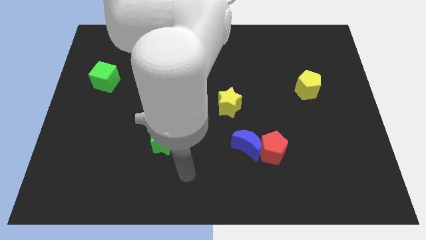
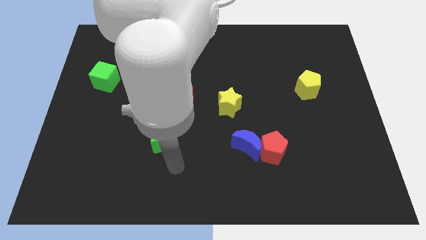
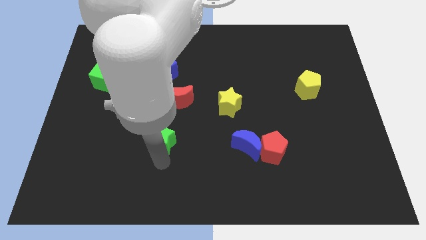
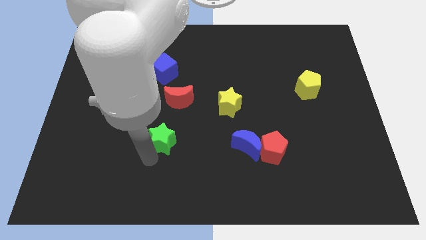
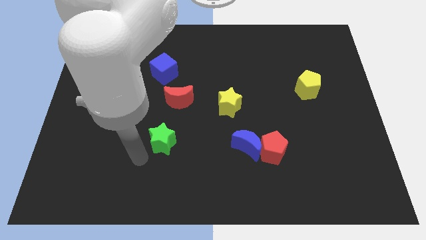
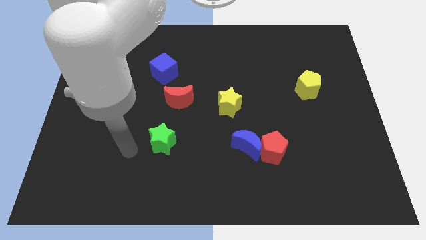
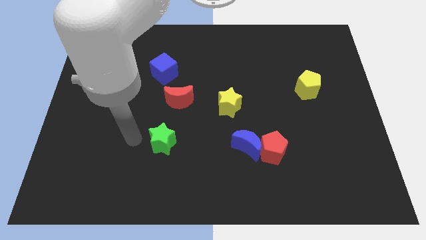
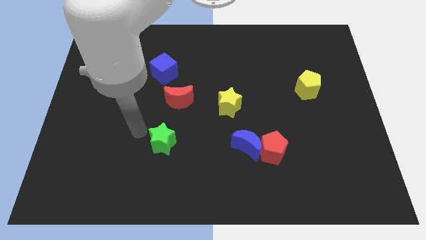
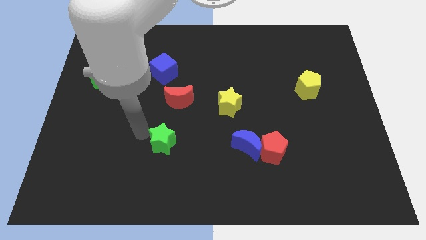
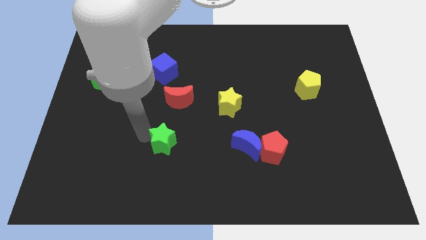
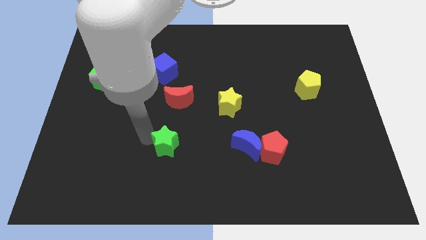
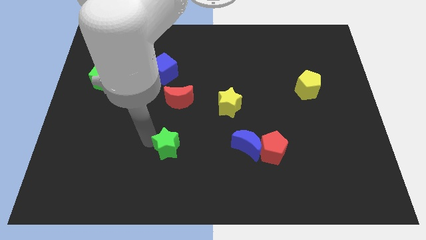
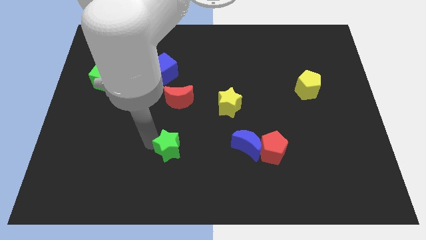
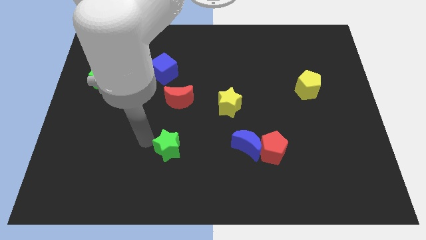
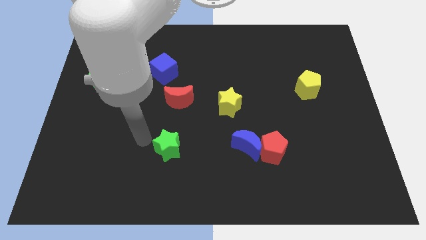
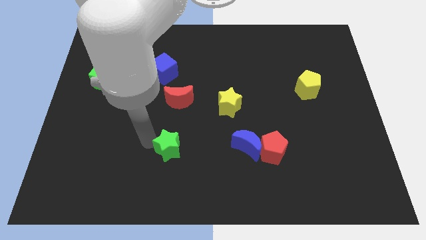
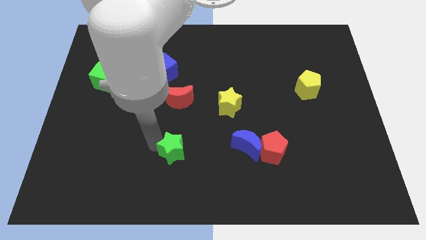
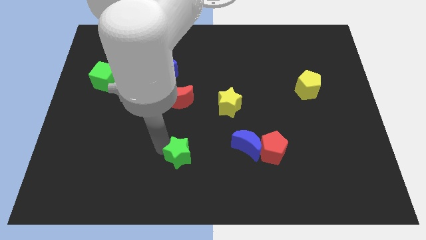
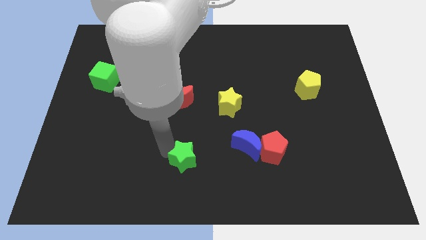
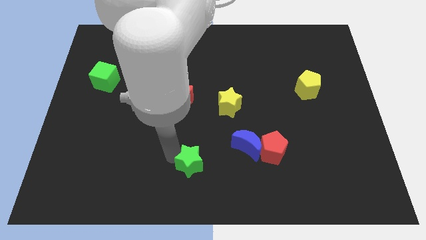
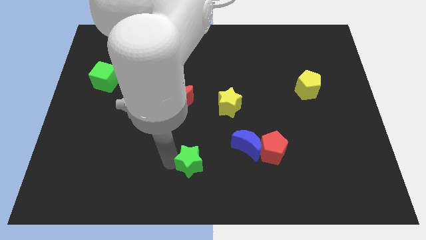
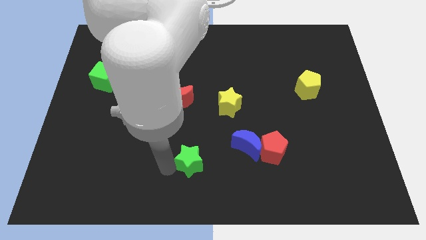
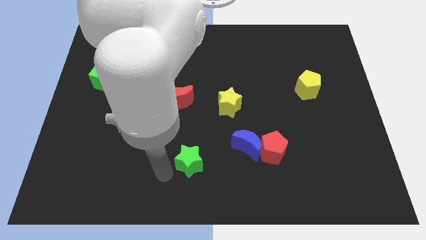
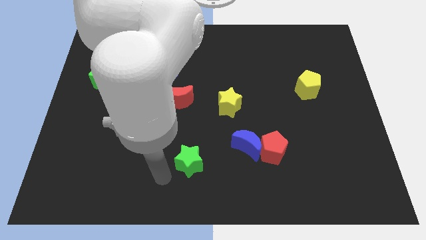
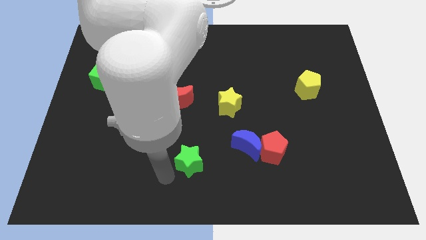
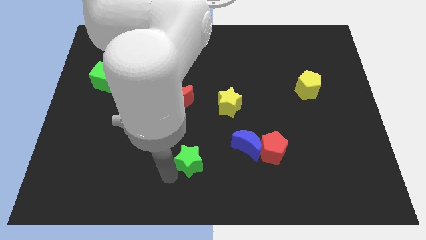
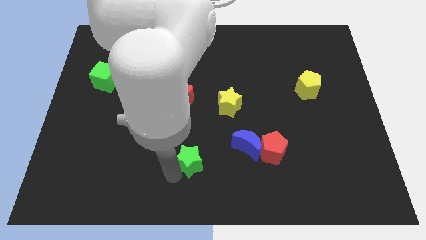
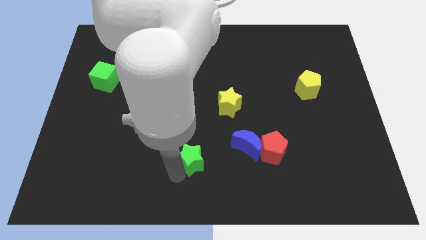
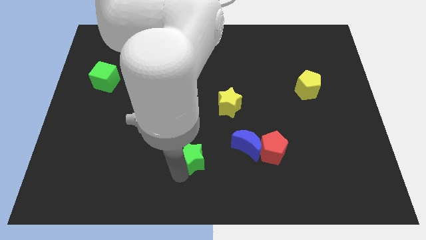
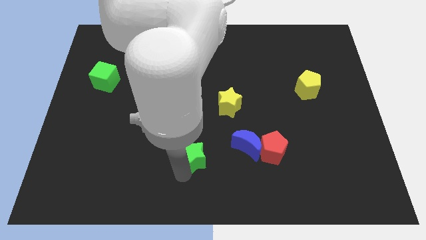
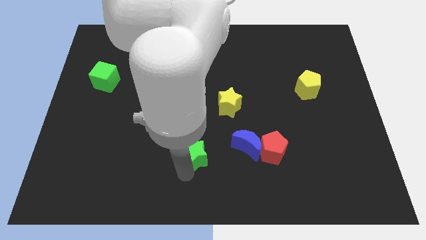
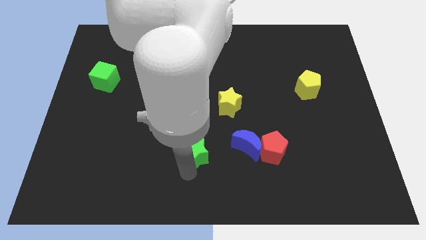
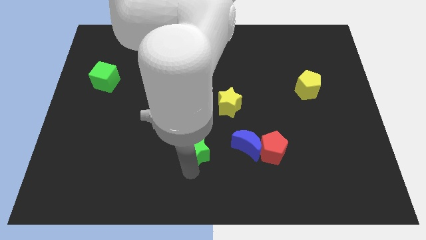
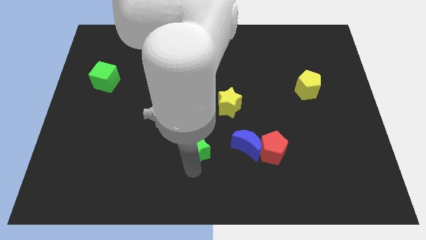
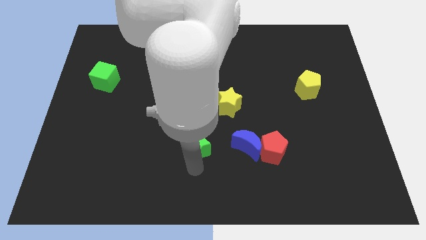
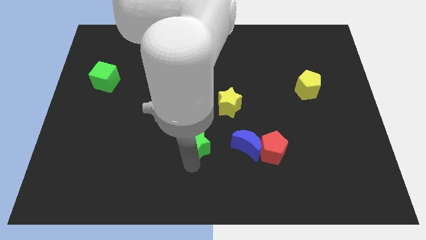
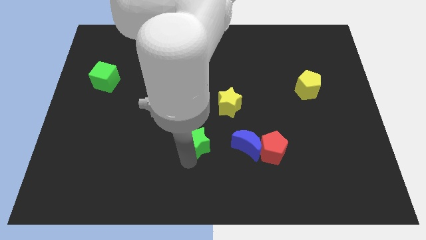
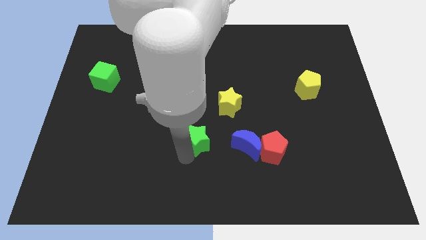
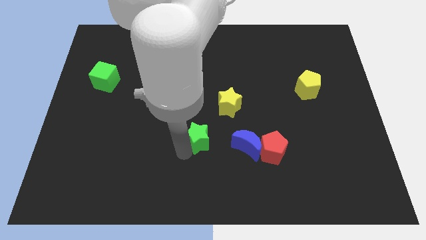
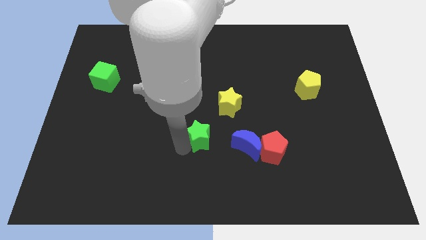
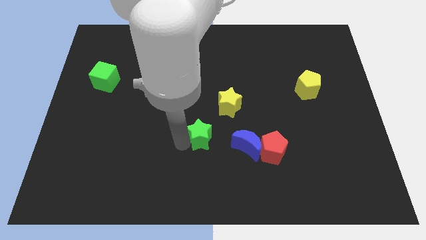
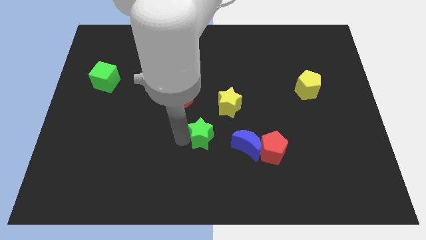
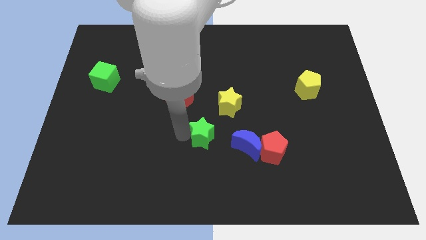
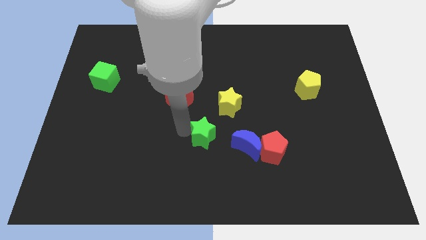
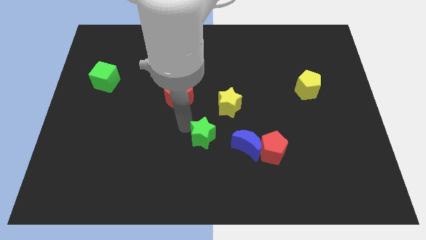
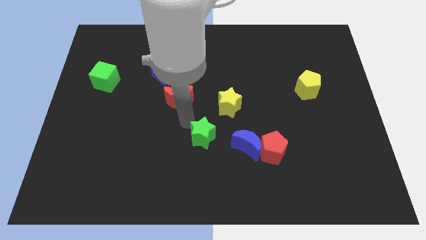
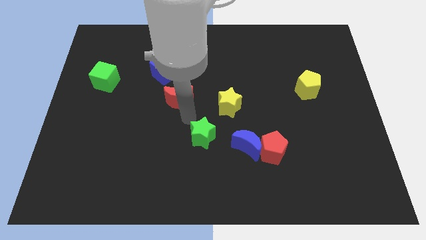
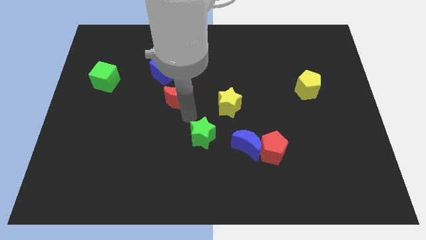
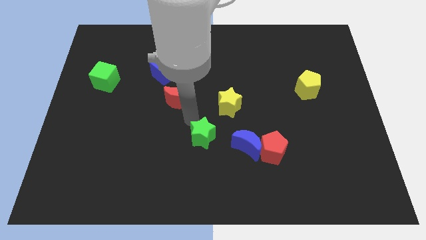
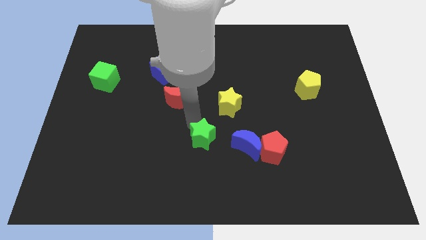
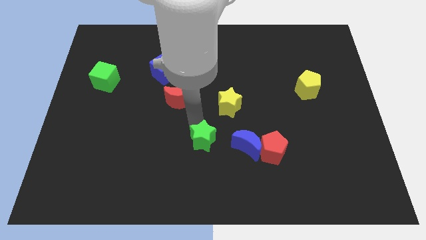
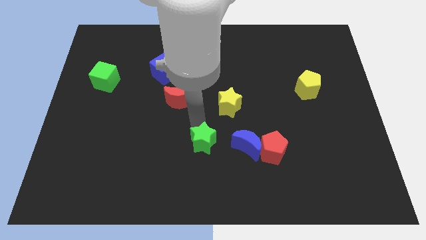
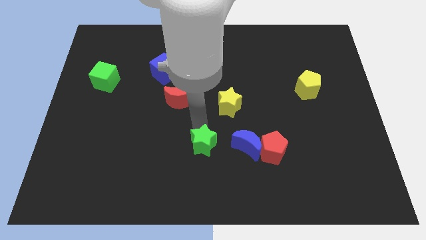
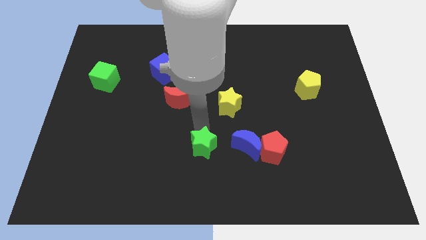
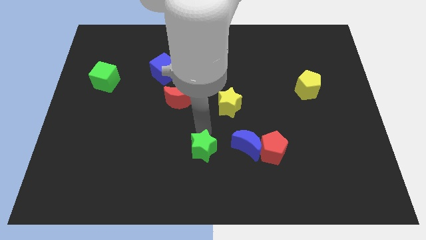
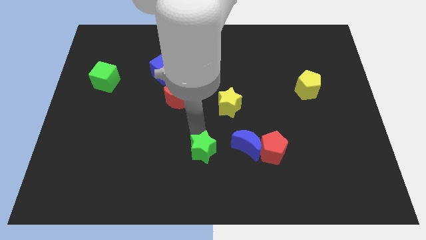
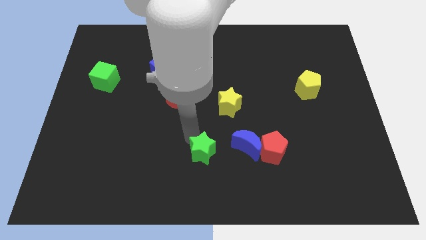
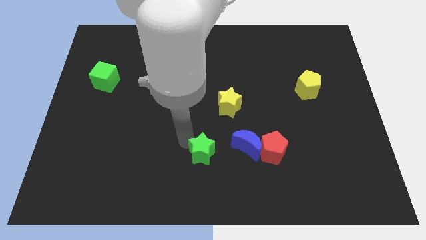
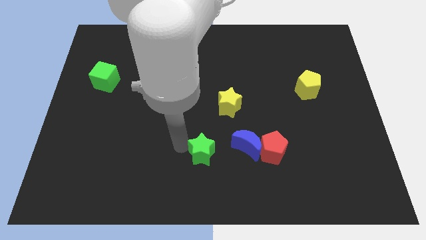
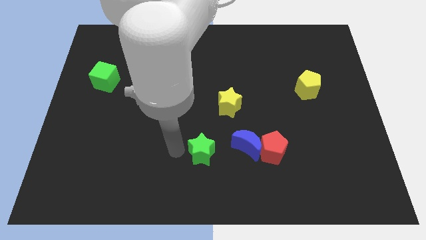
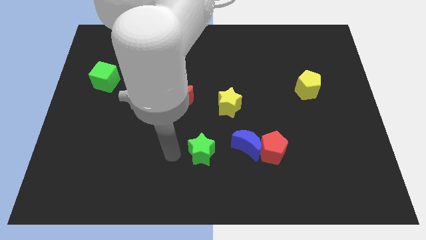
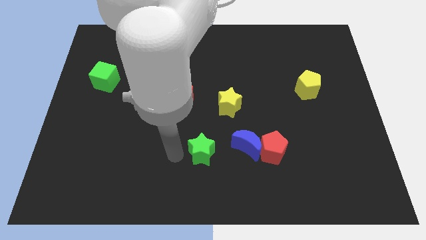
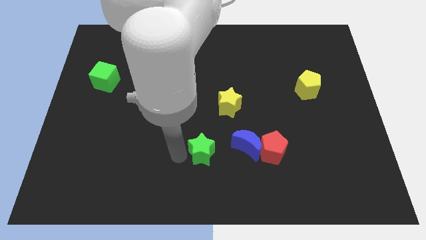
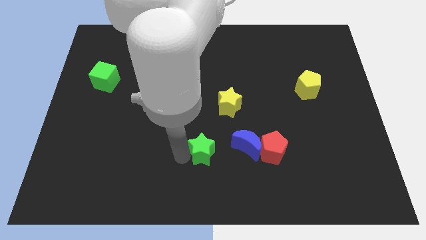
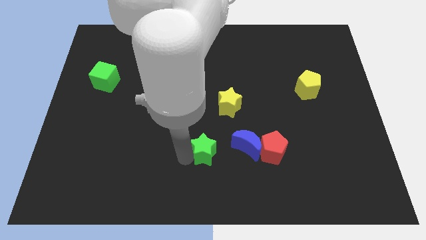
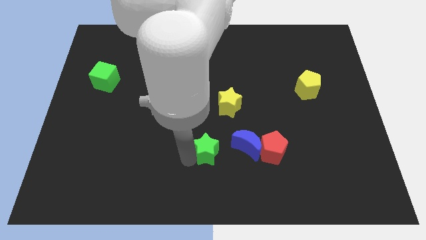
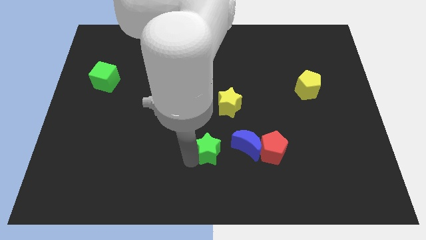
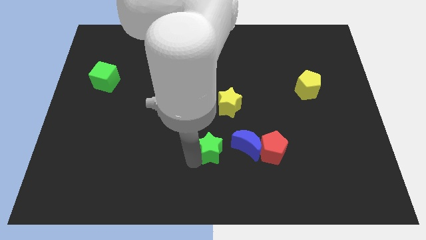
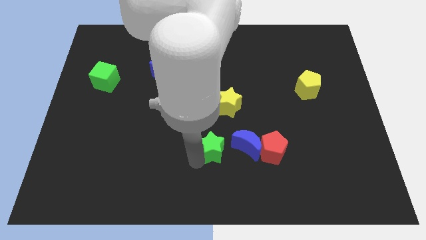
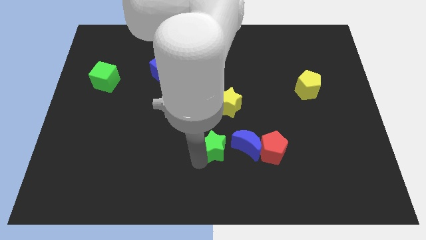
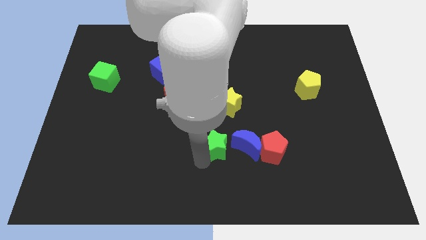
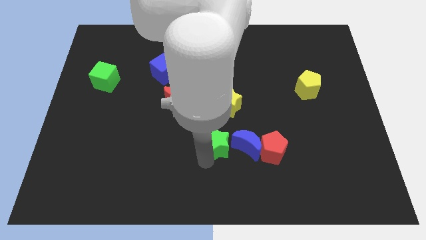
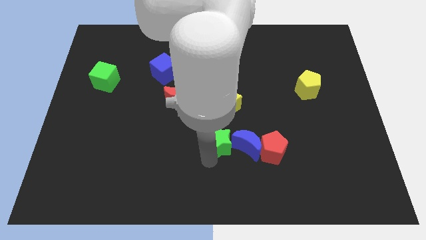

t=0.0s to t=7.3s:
put the green star close to the blue moon
